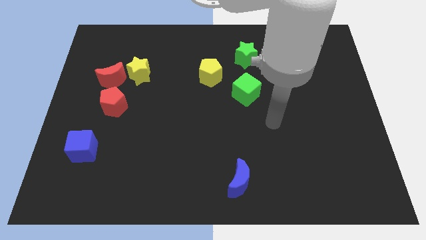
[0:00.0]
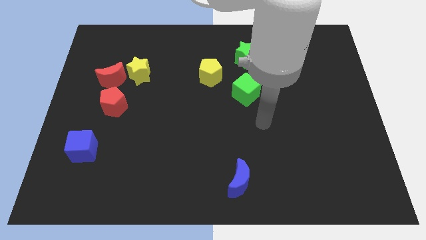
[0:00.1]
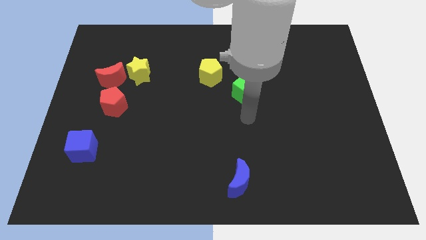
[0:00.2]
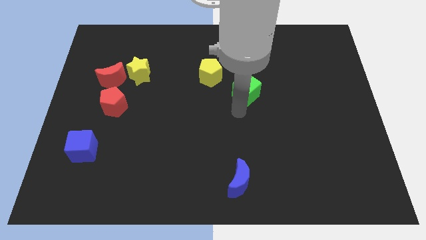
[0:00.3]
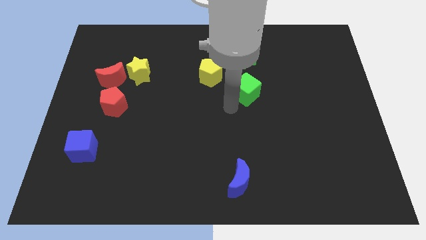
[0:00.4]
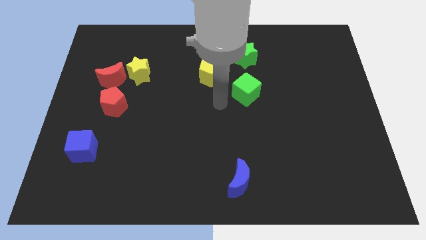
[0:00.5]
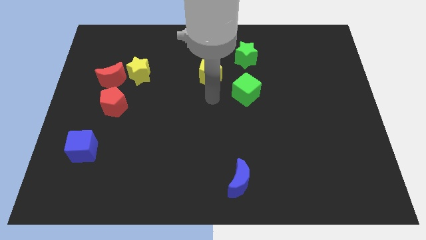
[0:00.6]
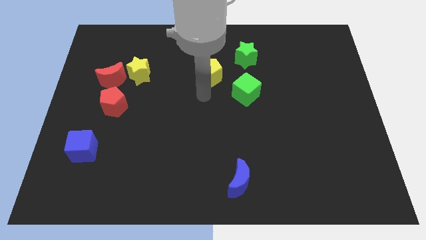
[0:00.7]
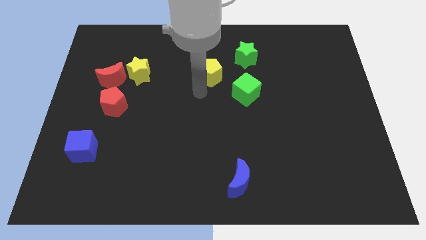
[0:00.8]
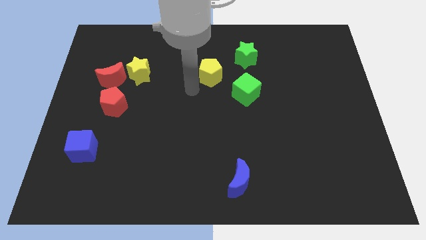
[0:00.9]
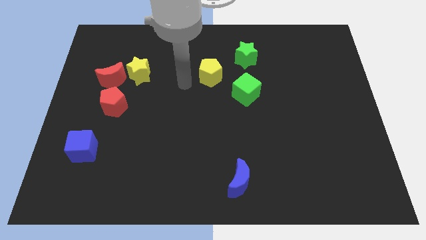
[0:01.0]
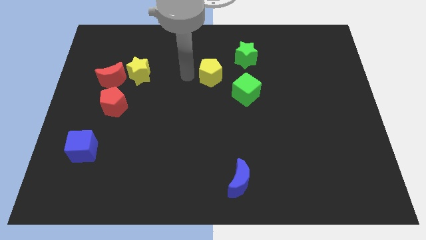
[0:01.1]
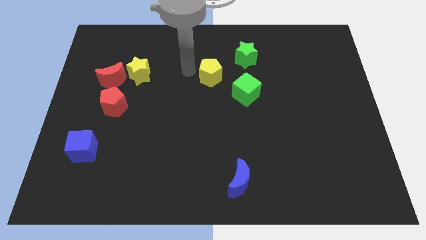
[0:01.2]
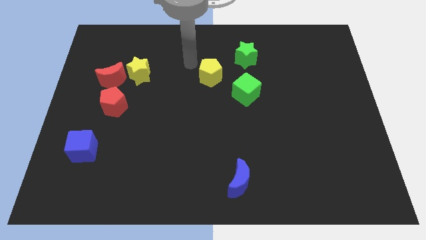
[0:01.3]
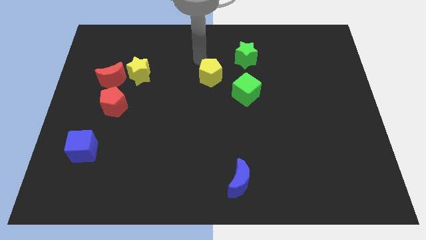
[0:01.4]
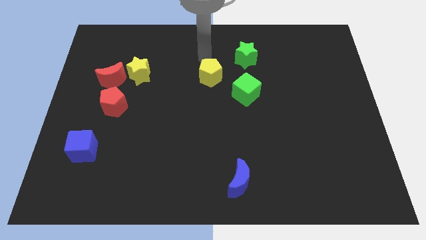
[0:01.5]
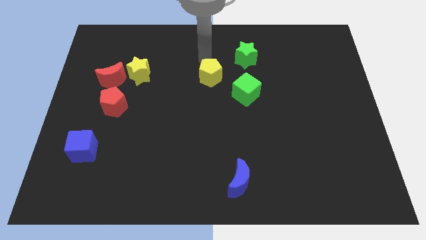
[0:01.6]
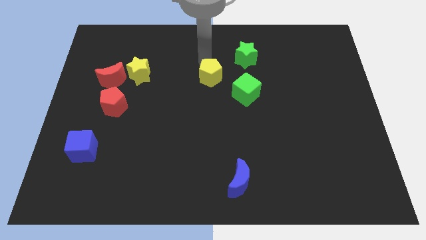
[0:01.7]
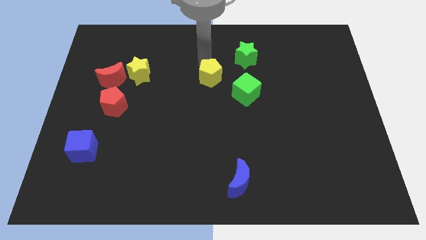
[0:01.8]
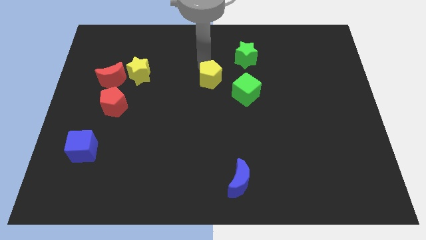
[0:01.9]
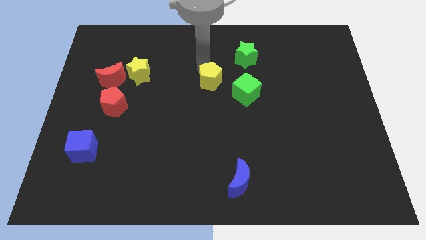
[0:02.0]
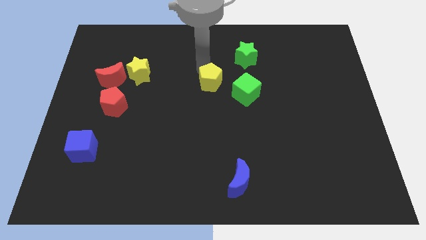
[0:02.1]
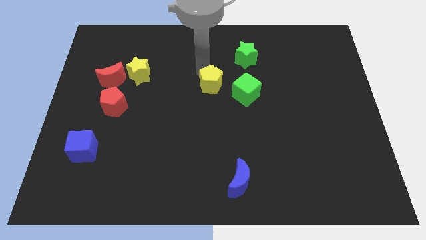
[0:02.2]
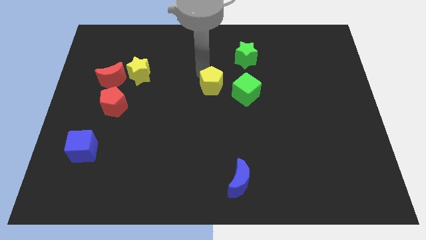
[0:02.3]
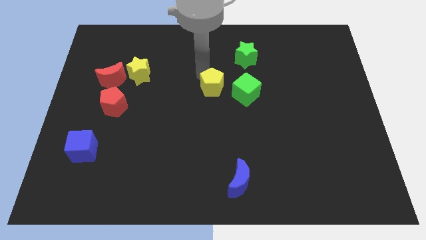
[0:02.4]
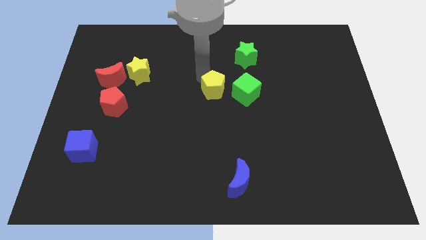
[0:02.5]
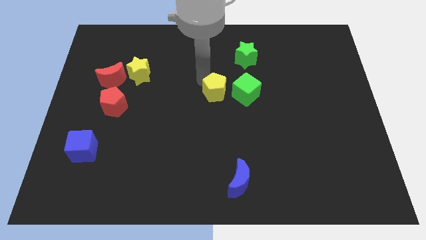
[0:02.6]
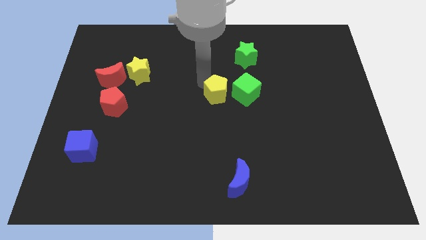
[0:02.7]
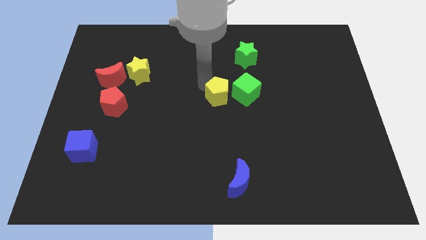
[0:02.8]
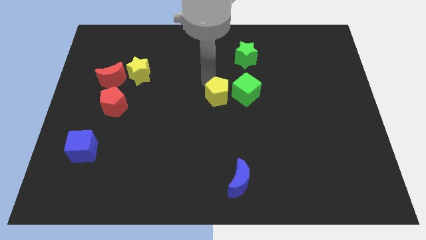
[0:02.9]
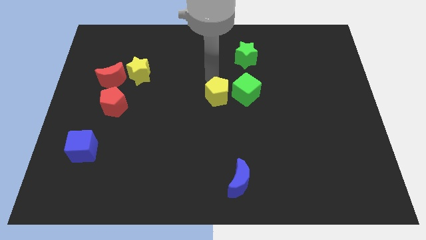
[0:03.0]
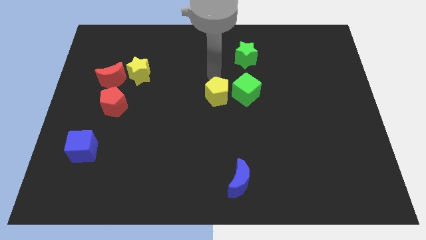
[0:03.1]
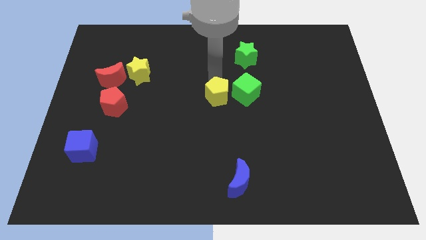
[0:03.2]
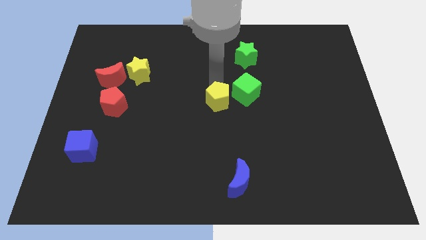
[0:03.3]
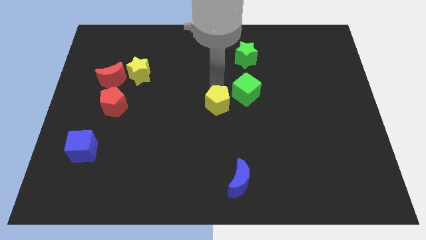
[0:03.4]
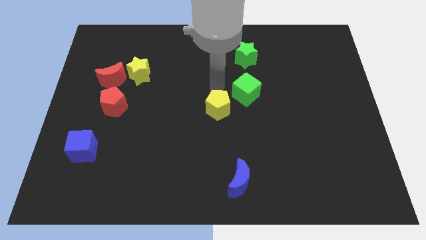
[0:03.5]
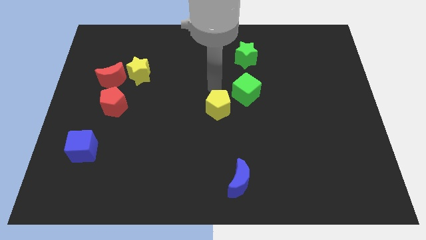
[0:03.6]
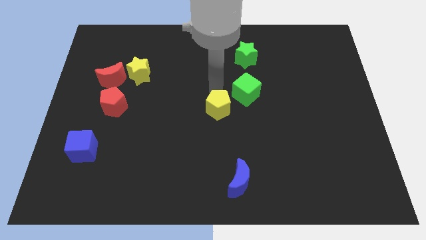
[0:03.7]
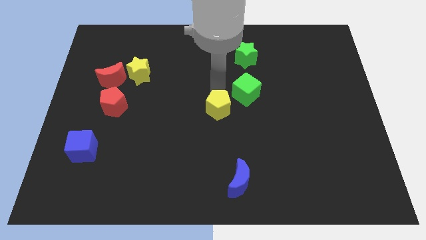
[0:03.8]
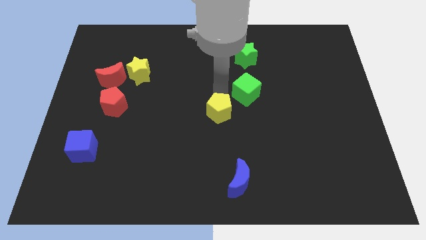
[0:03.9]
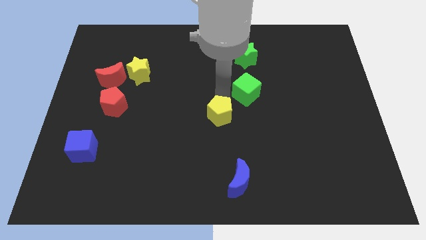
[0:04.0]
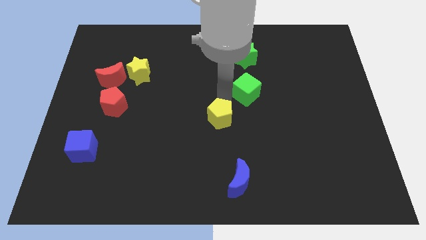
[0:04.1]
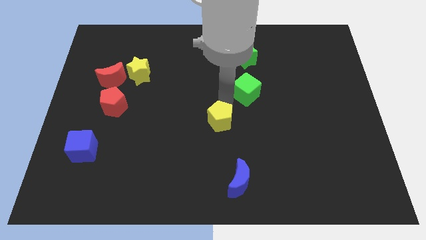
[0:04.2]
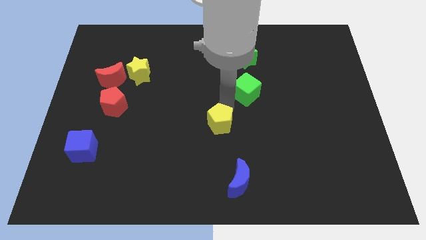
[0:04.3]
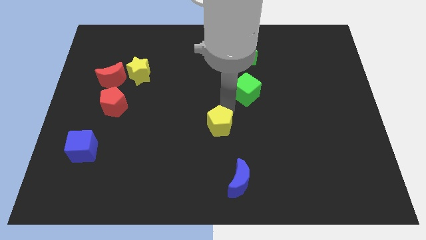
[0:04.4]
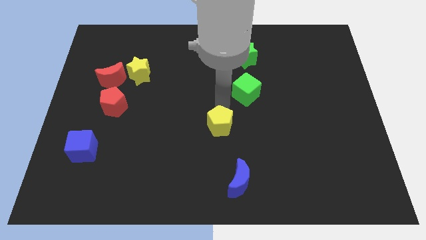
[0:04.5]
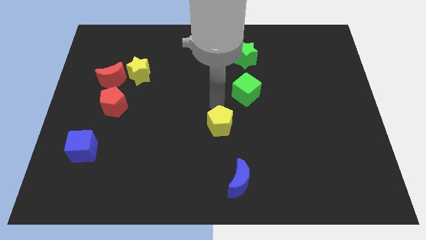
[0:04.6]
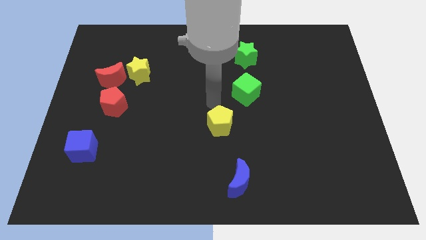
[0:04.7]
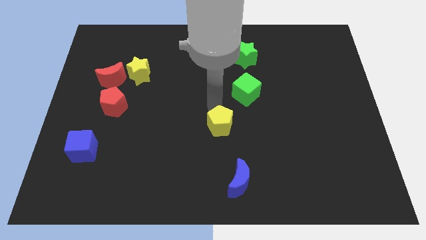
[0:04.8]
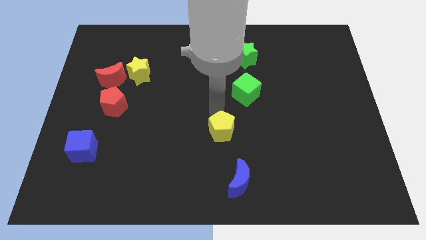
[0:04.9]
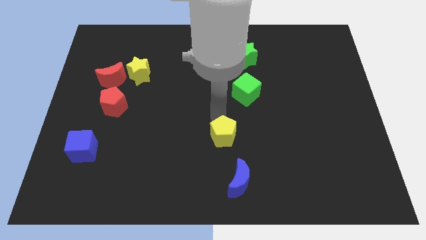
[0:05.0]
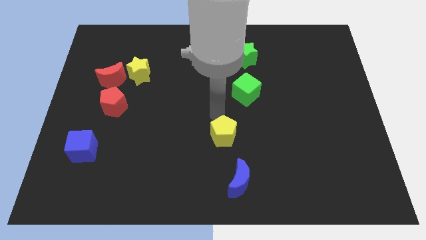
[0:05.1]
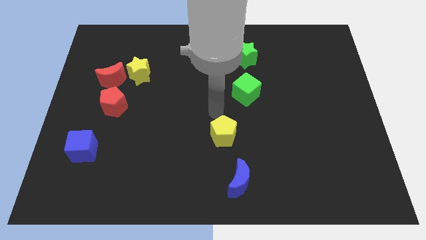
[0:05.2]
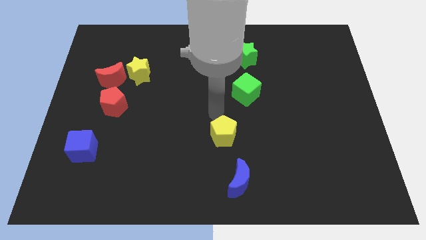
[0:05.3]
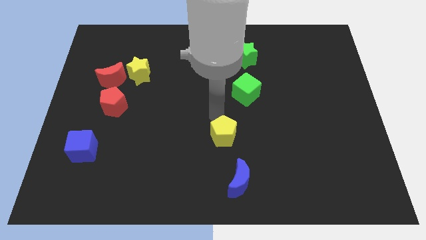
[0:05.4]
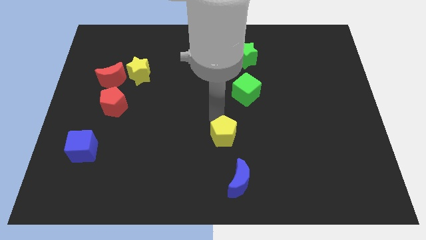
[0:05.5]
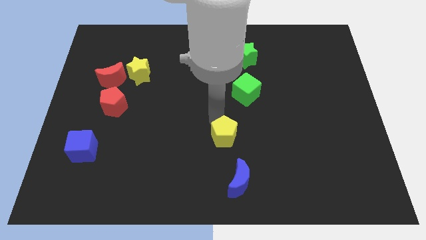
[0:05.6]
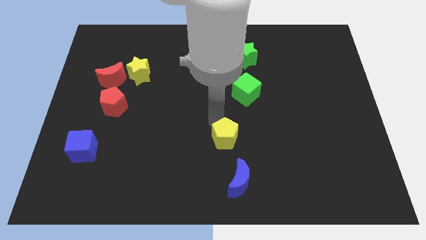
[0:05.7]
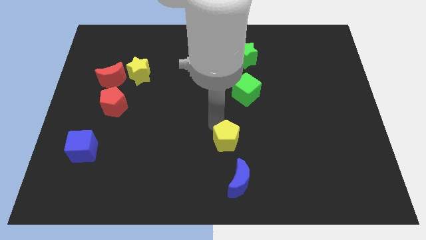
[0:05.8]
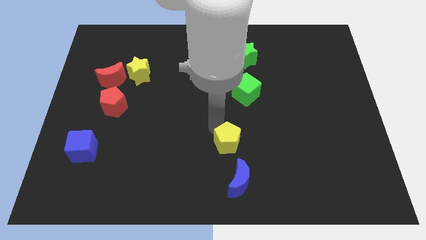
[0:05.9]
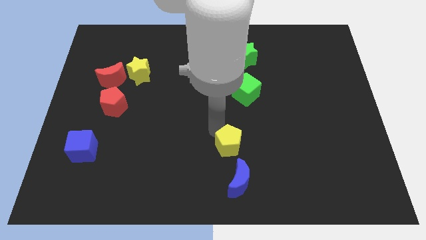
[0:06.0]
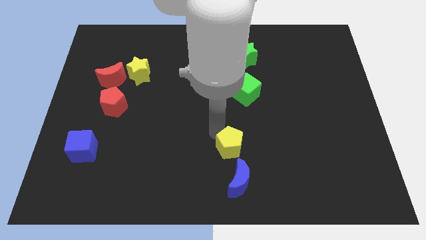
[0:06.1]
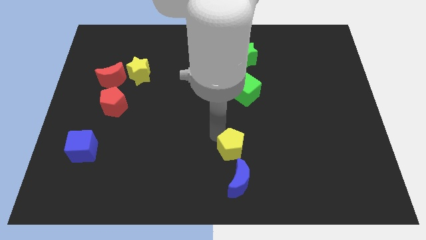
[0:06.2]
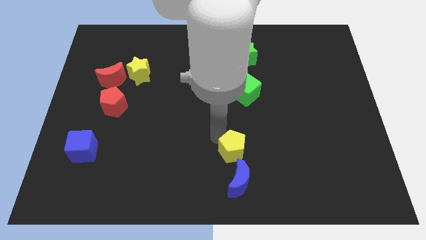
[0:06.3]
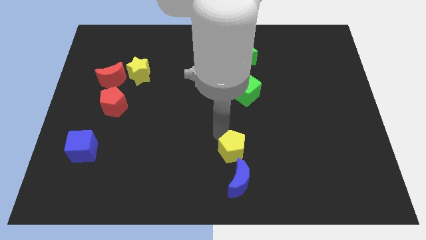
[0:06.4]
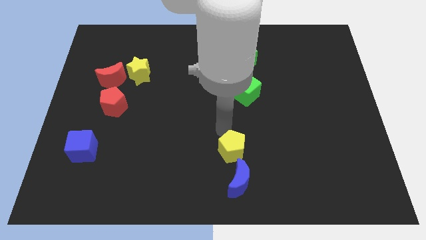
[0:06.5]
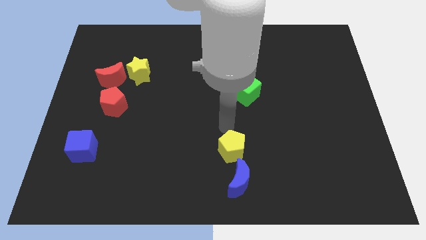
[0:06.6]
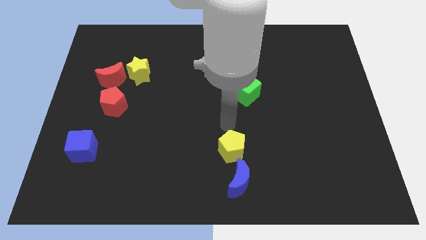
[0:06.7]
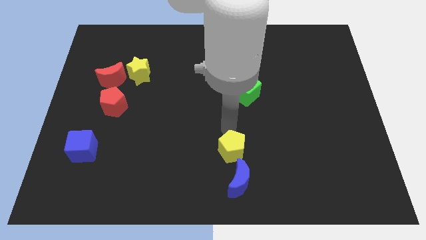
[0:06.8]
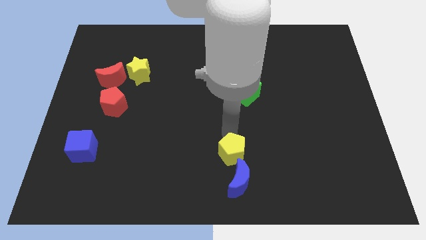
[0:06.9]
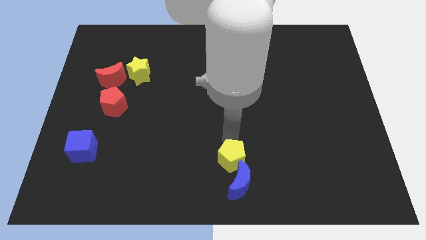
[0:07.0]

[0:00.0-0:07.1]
slide the yellow pentagon towards the blue moon

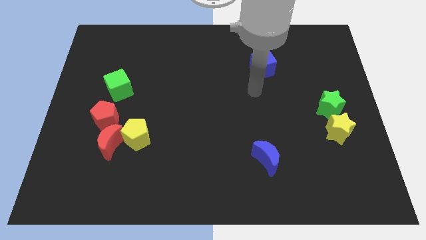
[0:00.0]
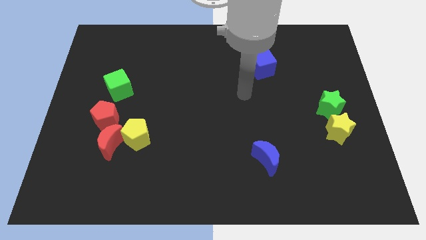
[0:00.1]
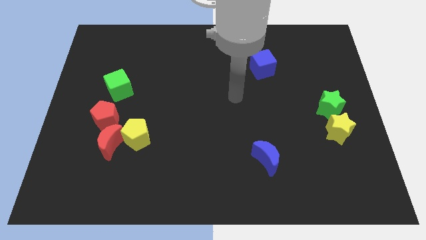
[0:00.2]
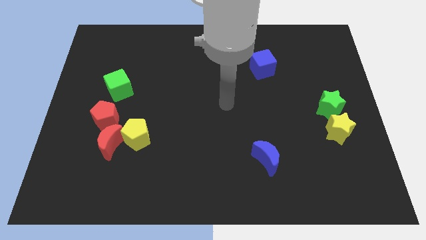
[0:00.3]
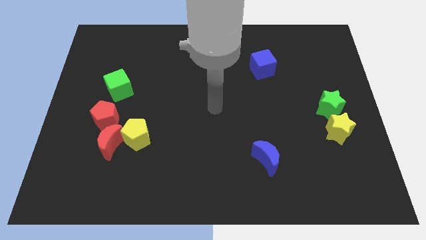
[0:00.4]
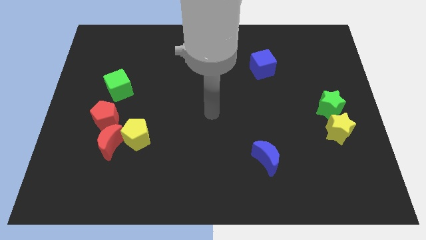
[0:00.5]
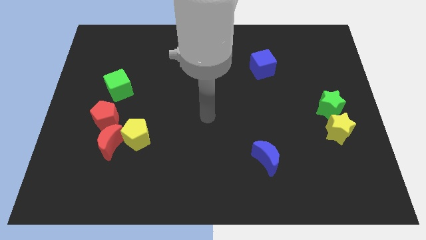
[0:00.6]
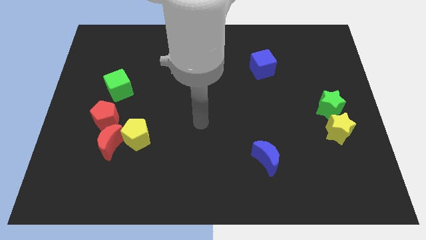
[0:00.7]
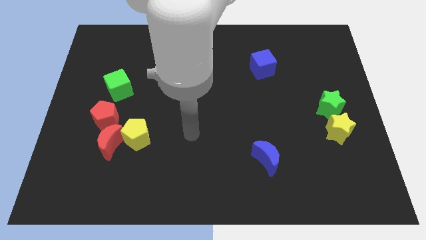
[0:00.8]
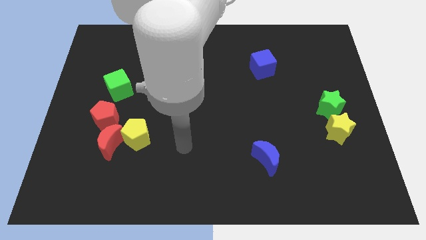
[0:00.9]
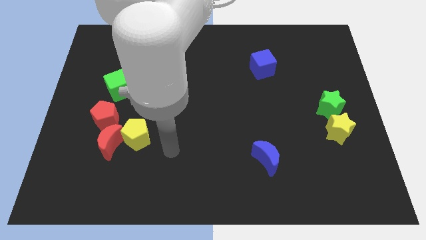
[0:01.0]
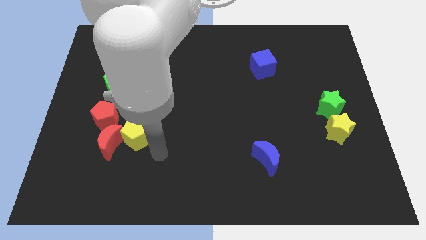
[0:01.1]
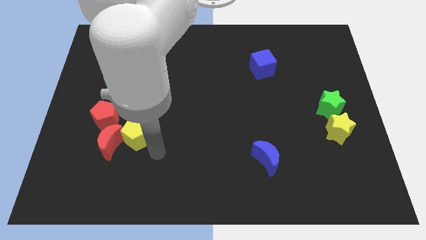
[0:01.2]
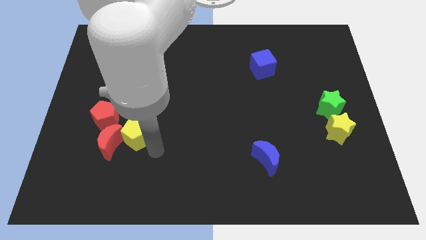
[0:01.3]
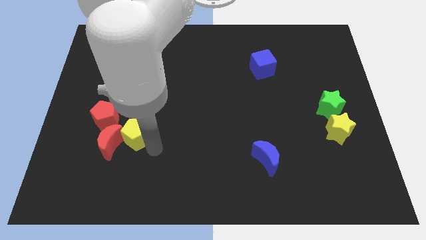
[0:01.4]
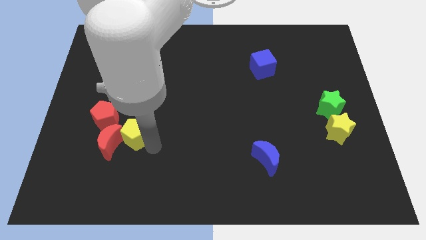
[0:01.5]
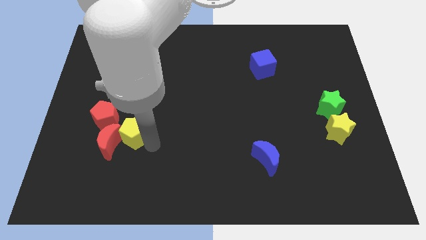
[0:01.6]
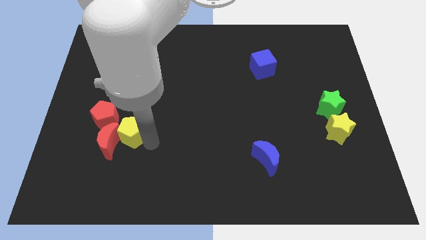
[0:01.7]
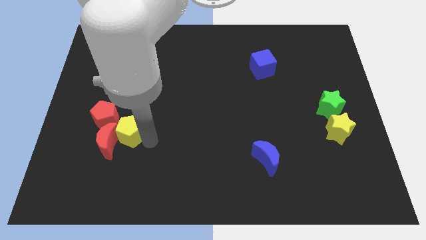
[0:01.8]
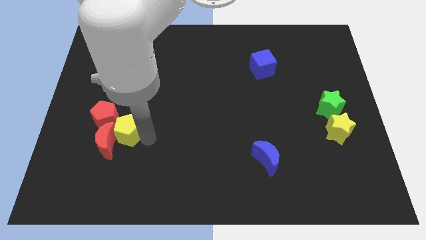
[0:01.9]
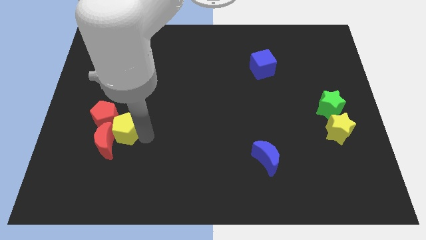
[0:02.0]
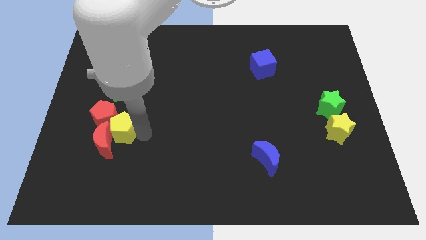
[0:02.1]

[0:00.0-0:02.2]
put the yellow pentagon to the red pentagon
